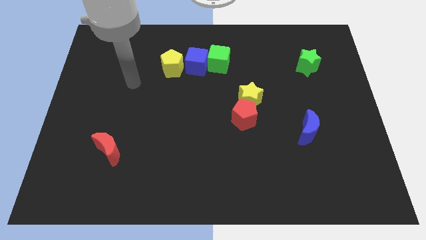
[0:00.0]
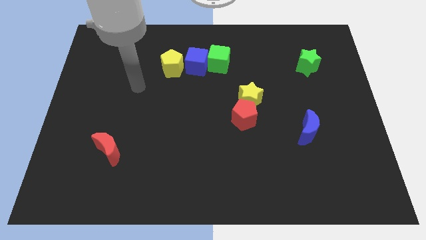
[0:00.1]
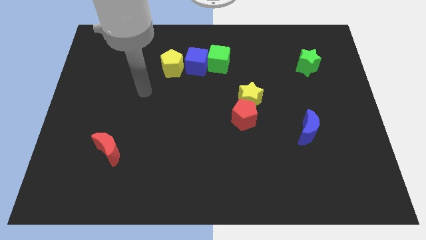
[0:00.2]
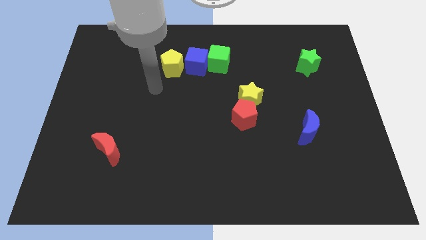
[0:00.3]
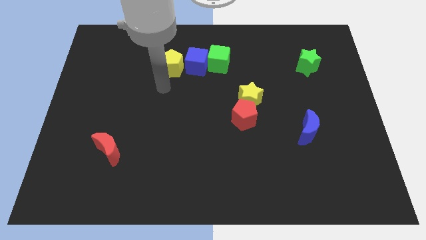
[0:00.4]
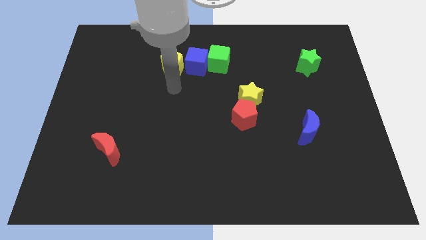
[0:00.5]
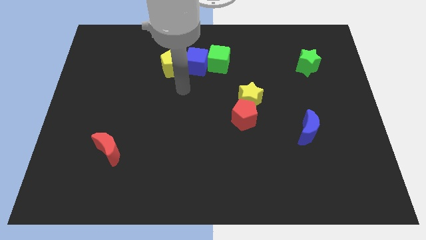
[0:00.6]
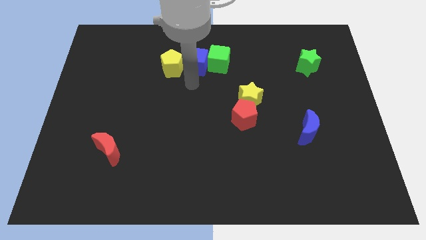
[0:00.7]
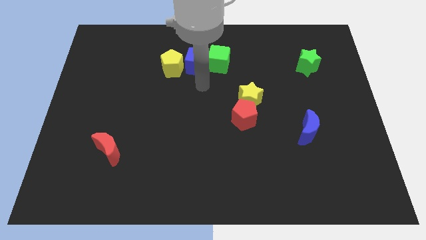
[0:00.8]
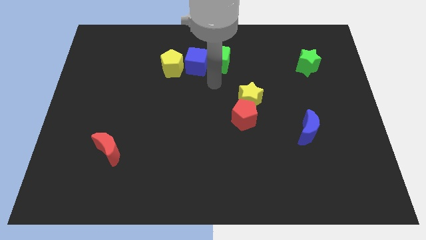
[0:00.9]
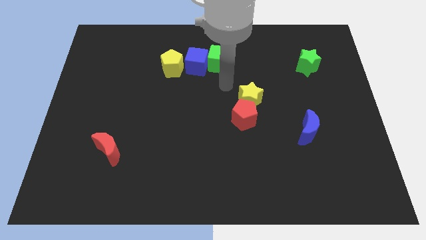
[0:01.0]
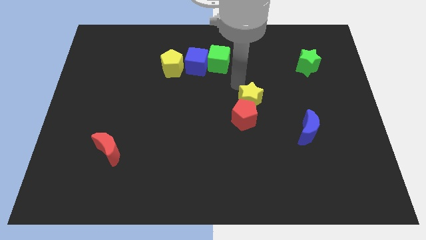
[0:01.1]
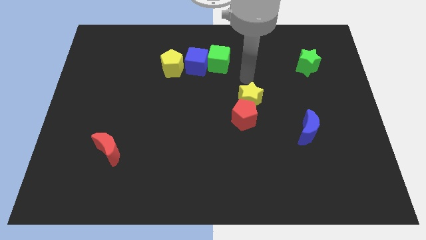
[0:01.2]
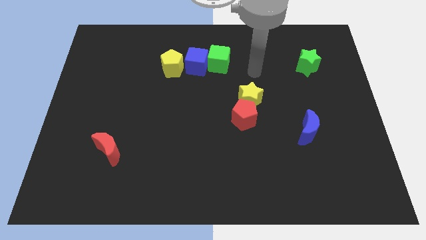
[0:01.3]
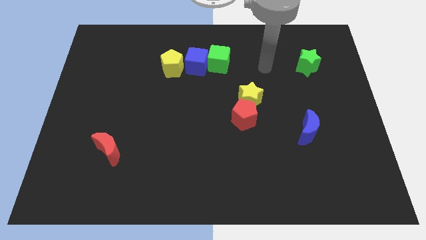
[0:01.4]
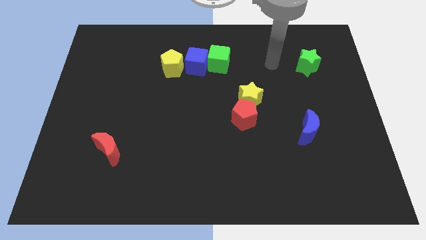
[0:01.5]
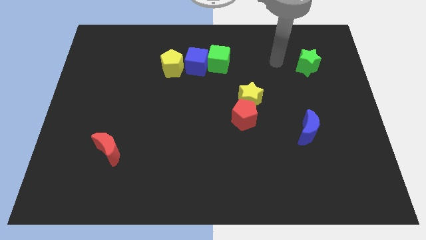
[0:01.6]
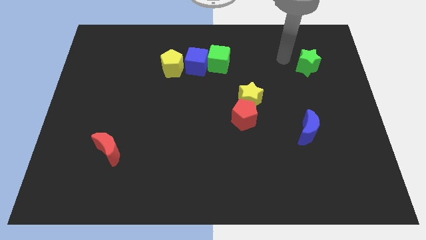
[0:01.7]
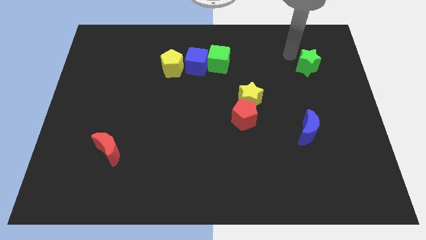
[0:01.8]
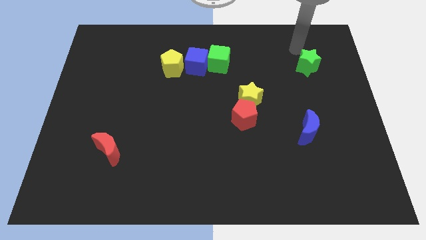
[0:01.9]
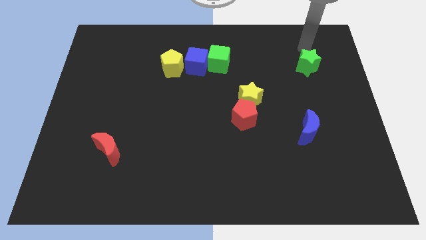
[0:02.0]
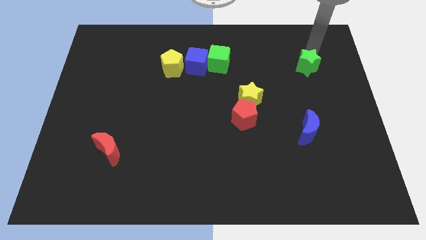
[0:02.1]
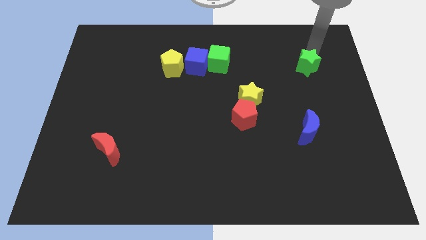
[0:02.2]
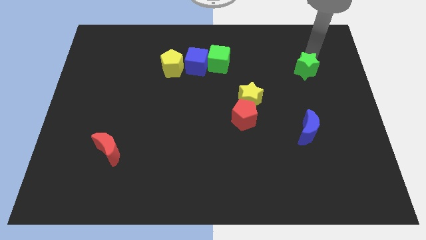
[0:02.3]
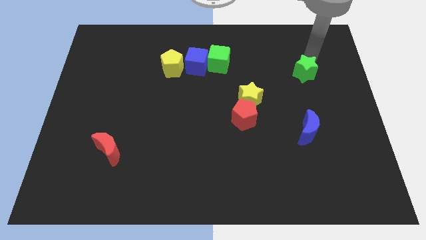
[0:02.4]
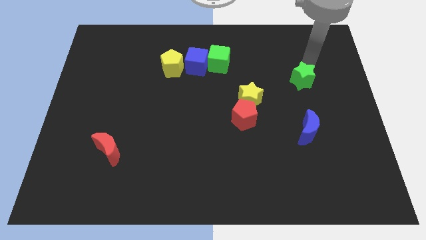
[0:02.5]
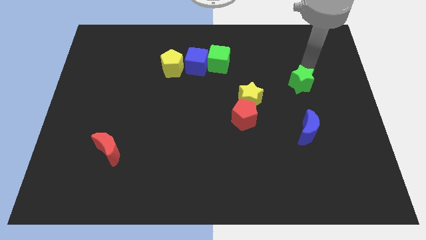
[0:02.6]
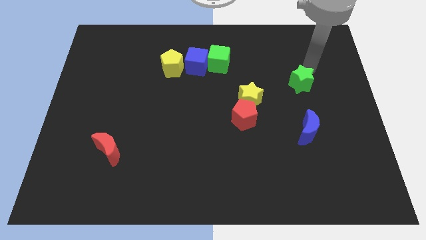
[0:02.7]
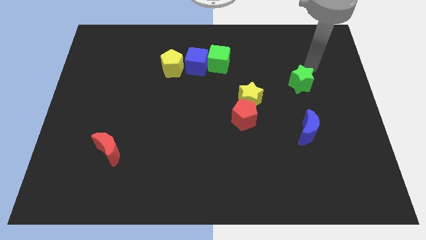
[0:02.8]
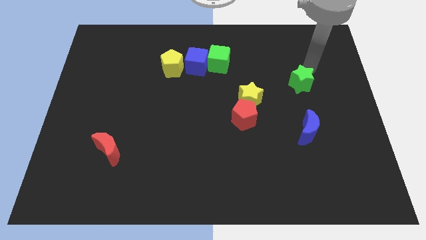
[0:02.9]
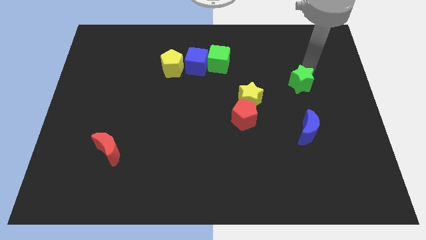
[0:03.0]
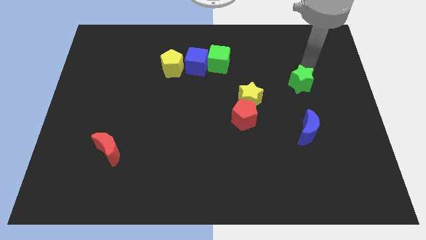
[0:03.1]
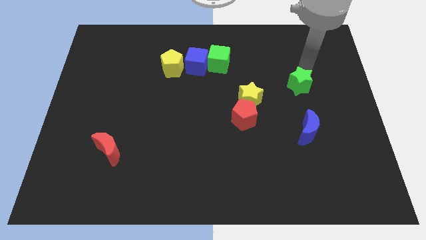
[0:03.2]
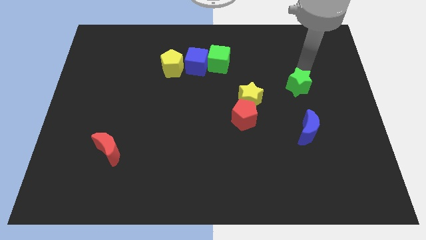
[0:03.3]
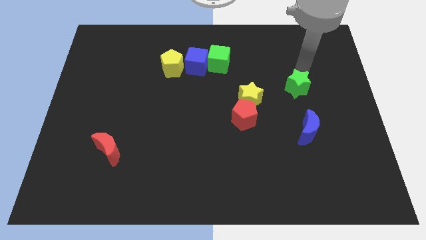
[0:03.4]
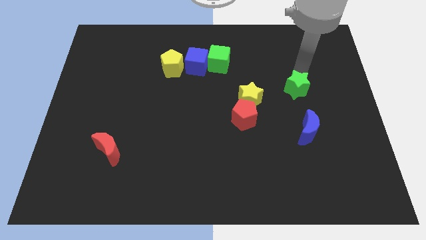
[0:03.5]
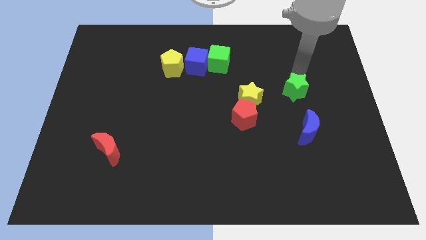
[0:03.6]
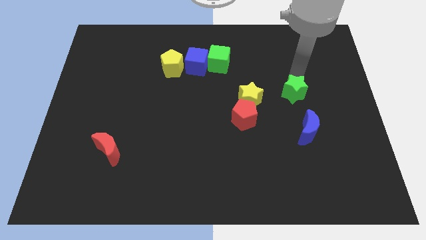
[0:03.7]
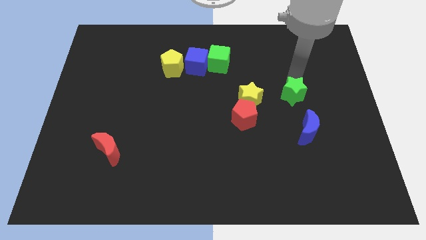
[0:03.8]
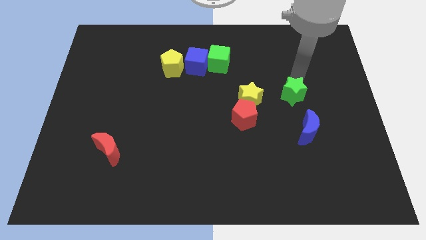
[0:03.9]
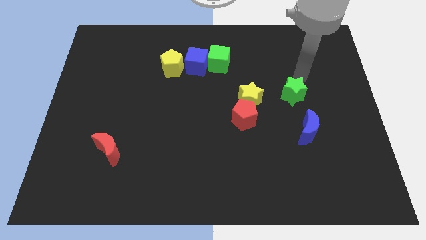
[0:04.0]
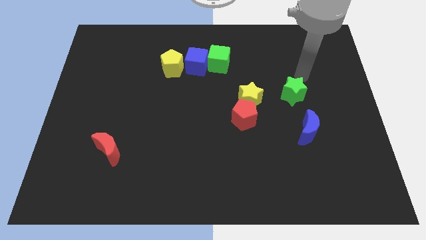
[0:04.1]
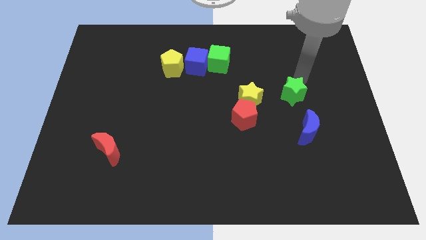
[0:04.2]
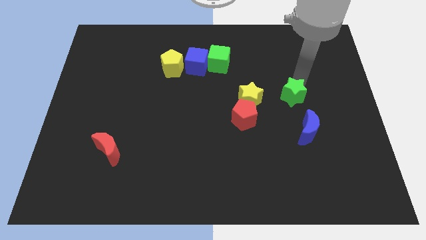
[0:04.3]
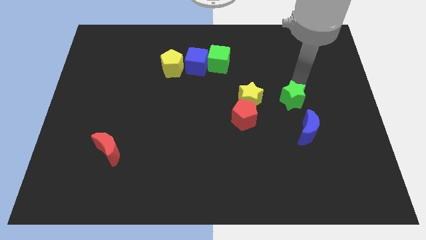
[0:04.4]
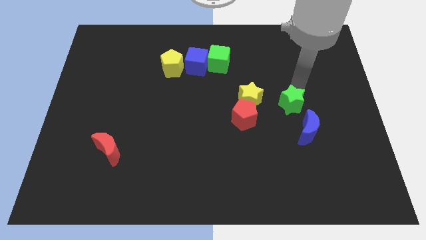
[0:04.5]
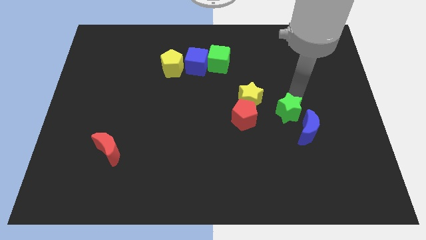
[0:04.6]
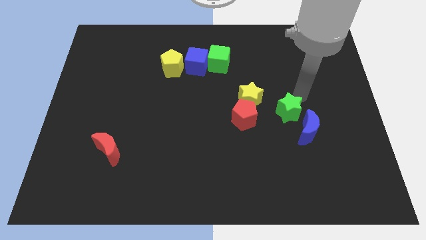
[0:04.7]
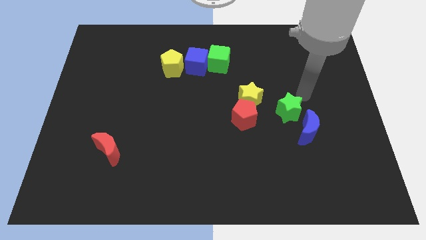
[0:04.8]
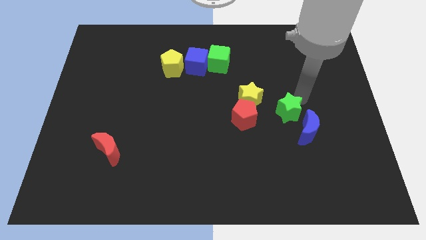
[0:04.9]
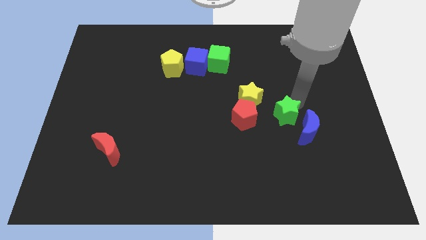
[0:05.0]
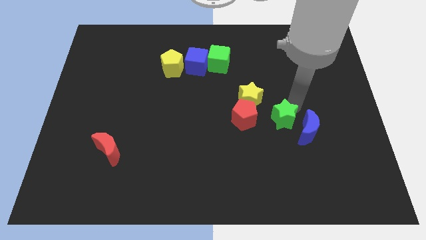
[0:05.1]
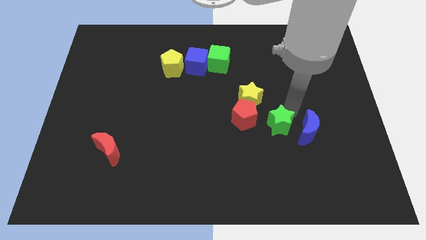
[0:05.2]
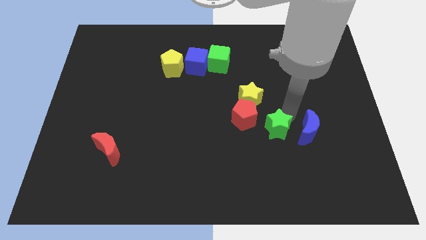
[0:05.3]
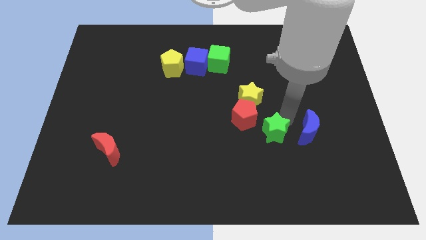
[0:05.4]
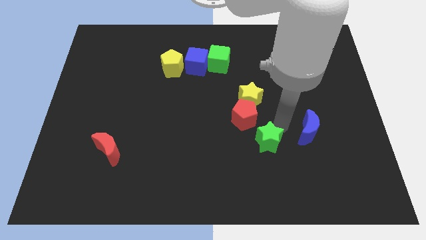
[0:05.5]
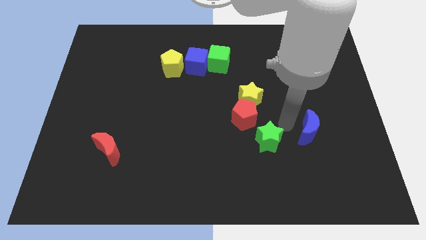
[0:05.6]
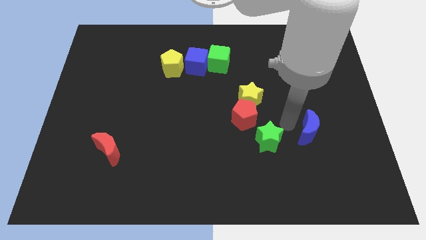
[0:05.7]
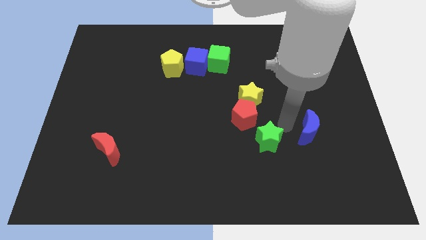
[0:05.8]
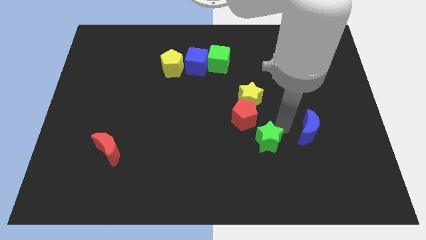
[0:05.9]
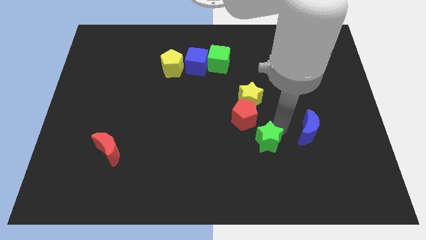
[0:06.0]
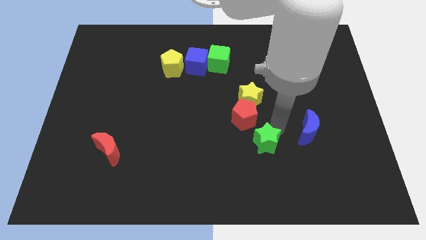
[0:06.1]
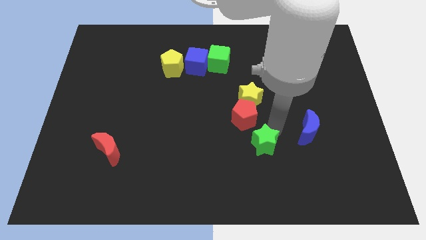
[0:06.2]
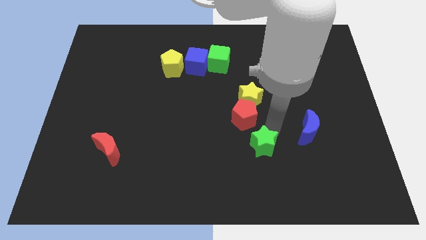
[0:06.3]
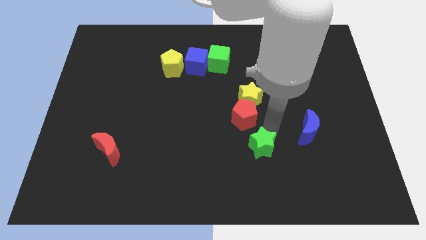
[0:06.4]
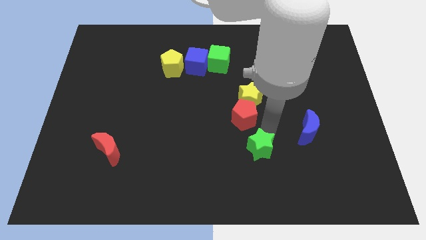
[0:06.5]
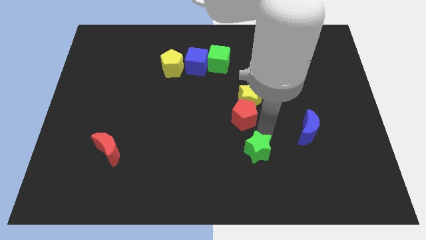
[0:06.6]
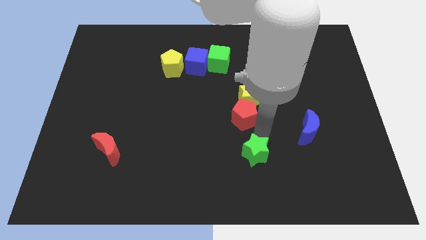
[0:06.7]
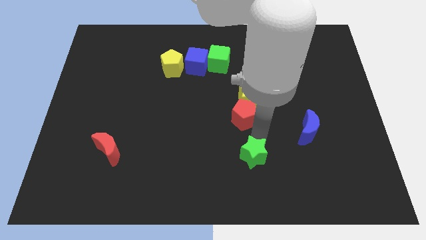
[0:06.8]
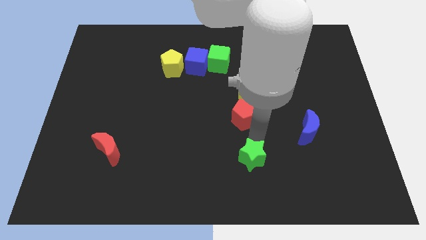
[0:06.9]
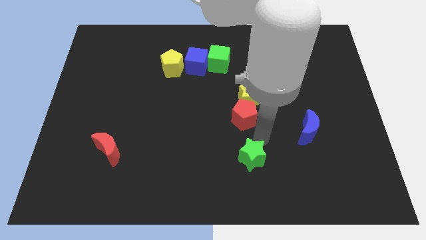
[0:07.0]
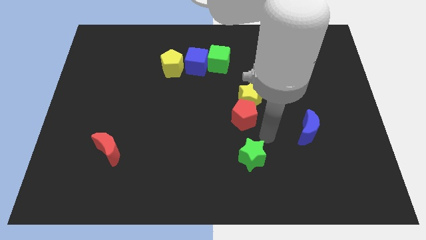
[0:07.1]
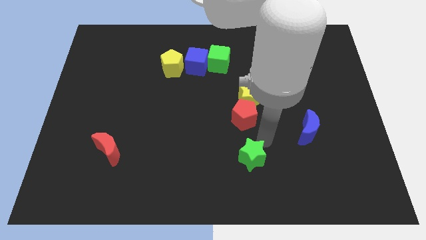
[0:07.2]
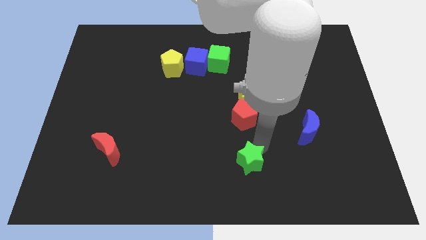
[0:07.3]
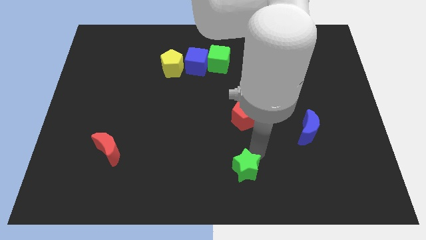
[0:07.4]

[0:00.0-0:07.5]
put the green star to the bottom
